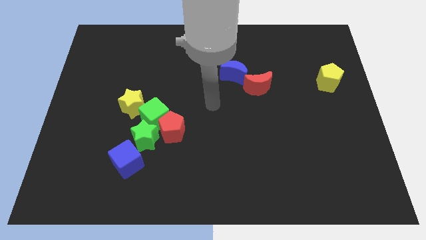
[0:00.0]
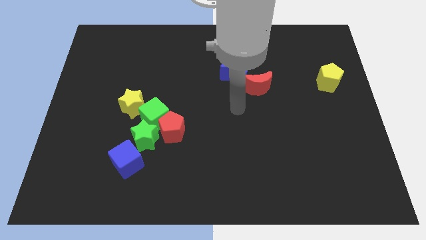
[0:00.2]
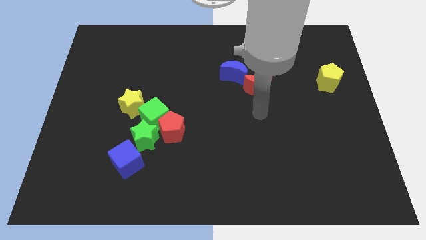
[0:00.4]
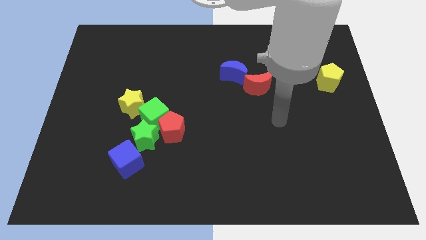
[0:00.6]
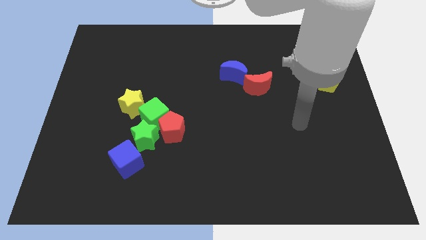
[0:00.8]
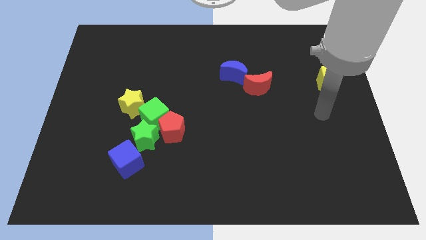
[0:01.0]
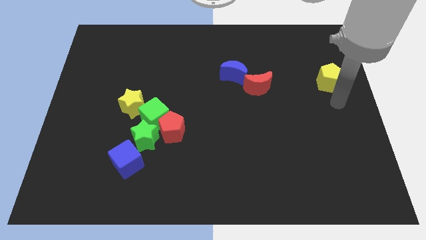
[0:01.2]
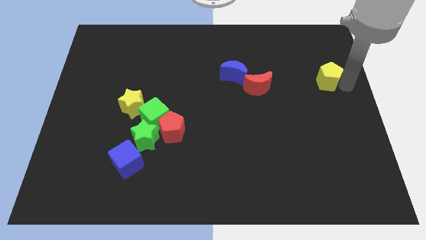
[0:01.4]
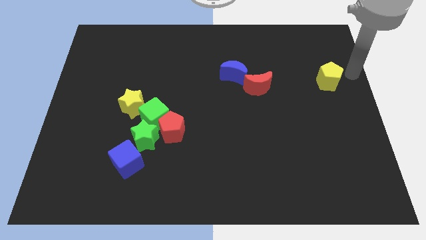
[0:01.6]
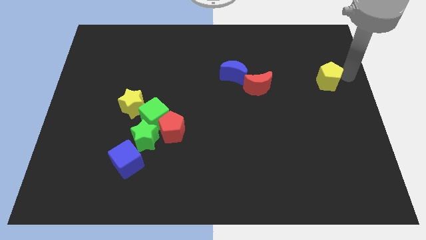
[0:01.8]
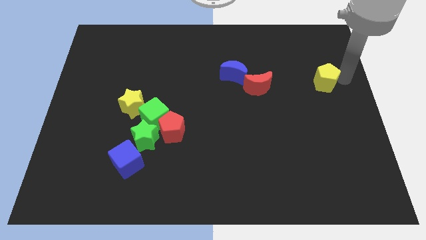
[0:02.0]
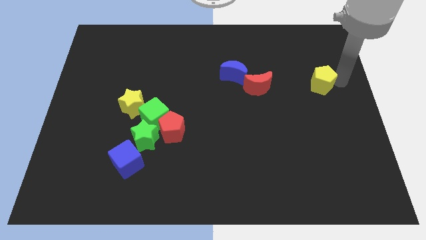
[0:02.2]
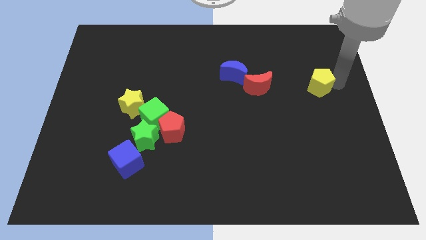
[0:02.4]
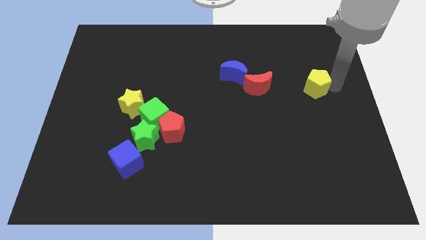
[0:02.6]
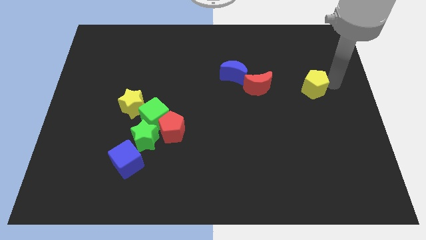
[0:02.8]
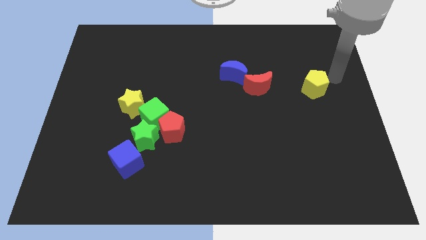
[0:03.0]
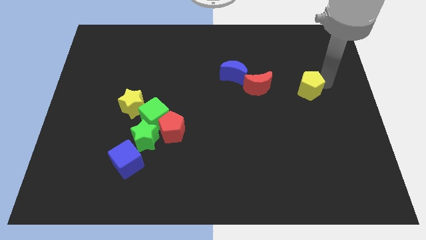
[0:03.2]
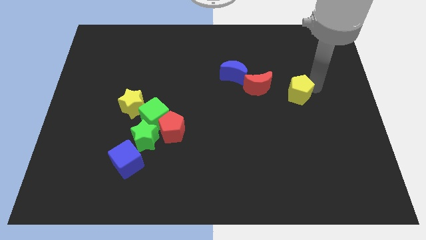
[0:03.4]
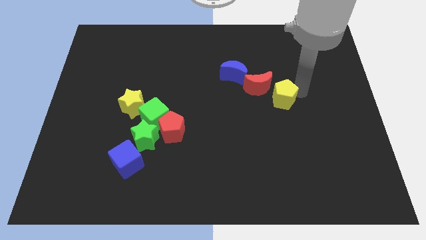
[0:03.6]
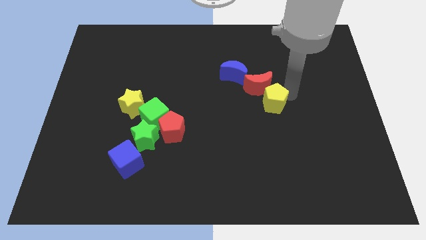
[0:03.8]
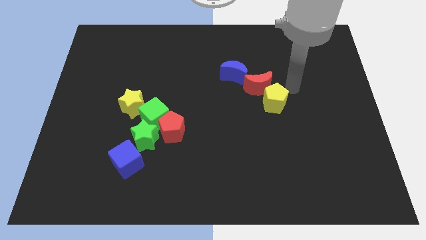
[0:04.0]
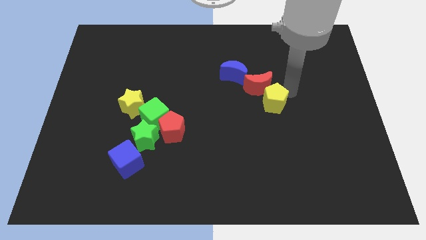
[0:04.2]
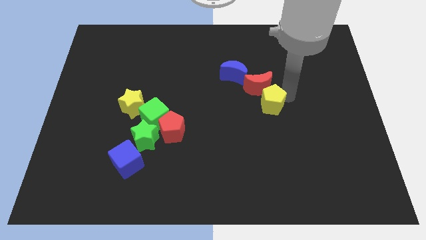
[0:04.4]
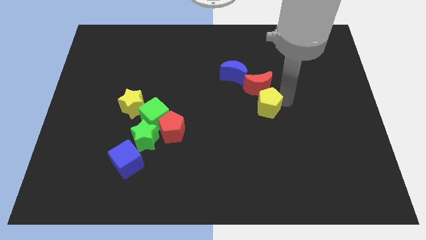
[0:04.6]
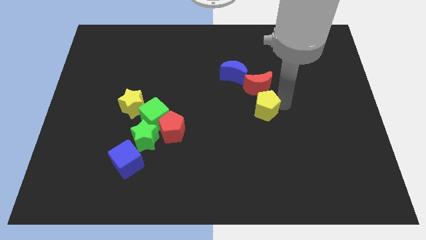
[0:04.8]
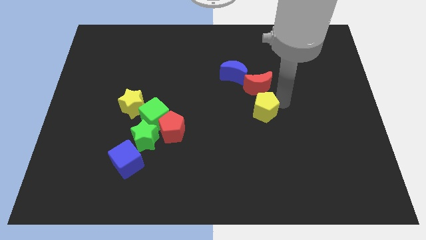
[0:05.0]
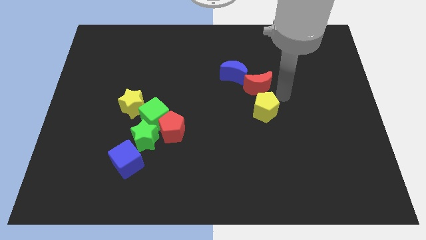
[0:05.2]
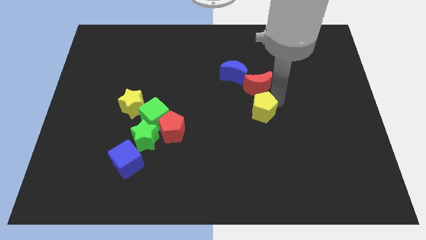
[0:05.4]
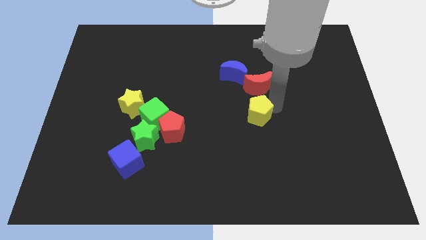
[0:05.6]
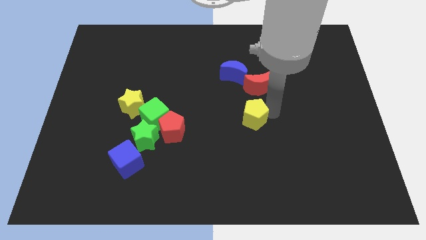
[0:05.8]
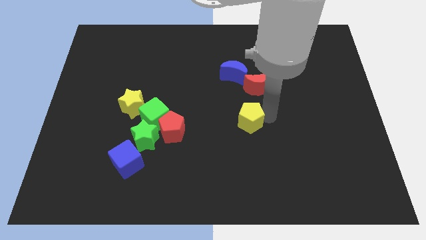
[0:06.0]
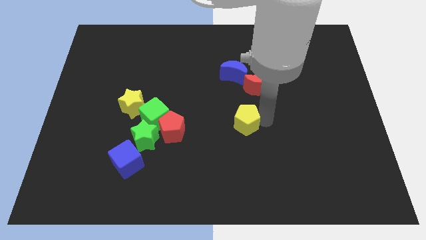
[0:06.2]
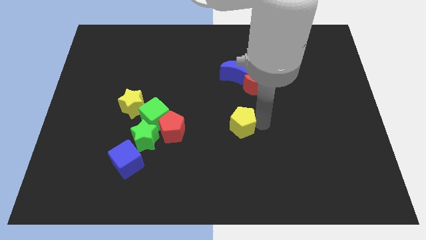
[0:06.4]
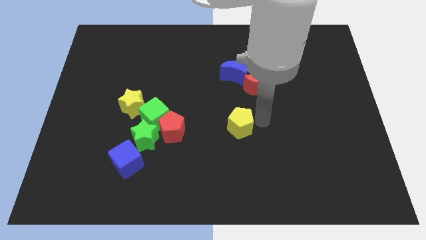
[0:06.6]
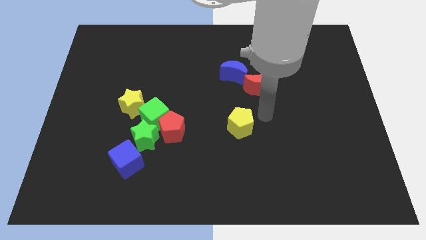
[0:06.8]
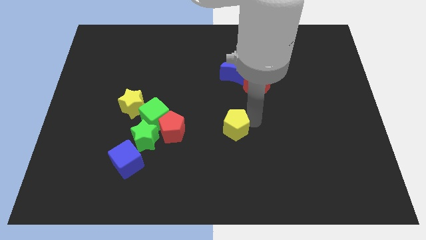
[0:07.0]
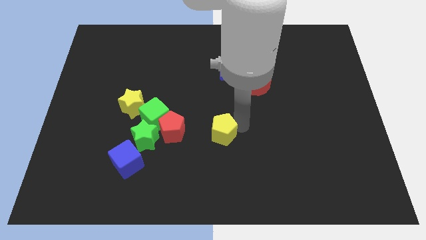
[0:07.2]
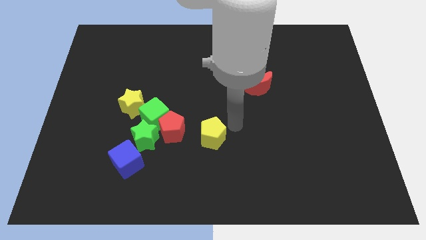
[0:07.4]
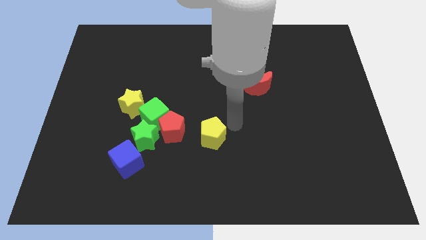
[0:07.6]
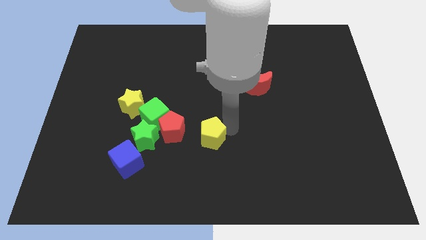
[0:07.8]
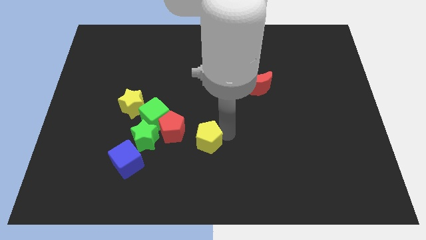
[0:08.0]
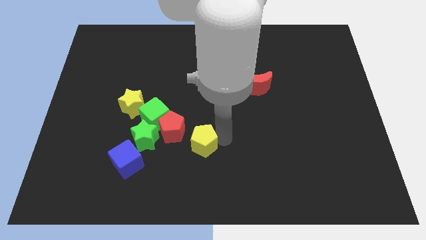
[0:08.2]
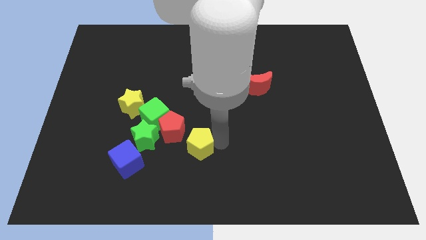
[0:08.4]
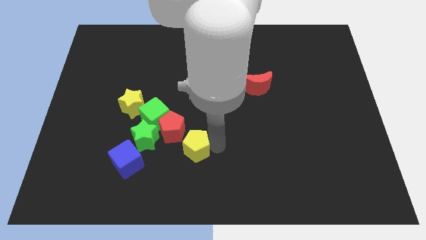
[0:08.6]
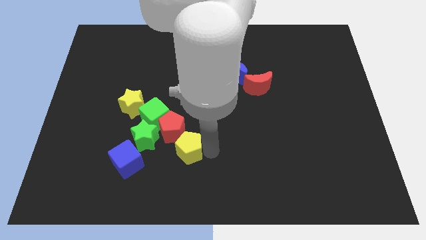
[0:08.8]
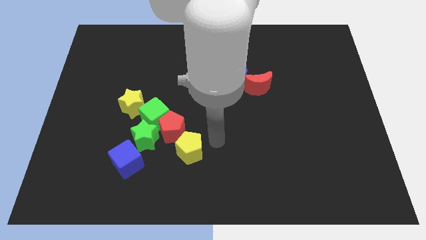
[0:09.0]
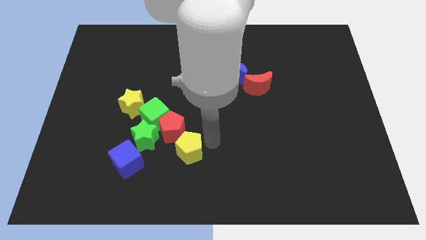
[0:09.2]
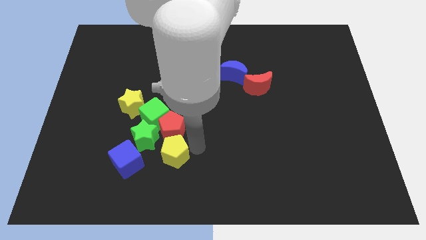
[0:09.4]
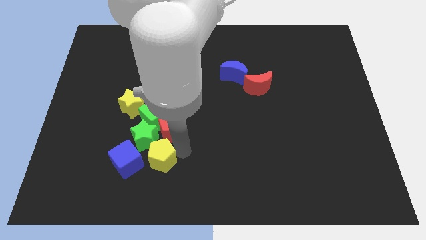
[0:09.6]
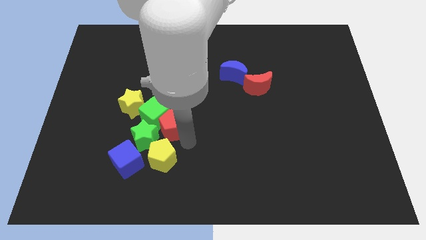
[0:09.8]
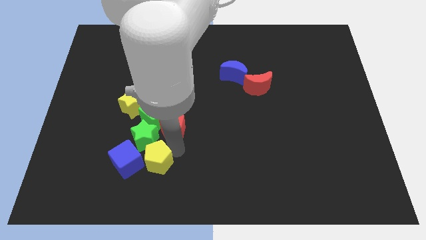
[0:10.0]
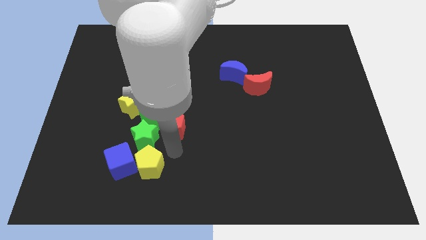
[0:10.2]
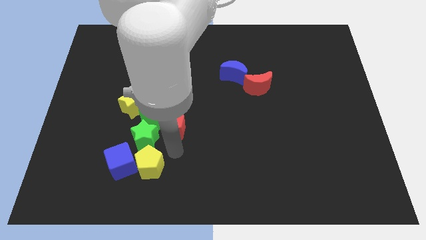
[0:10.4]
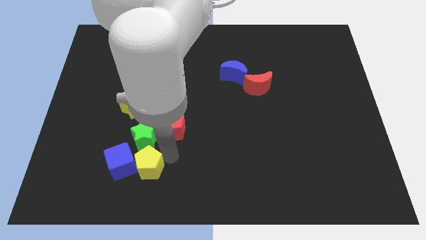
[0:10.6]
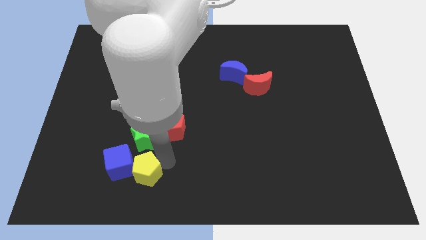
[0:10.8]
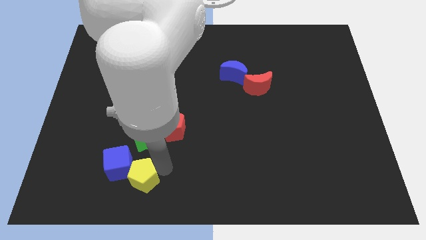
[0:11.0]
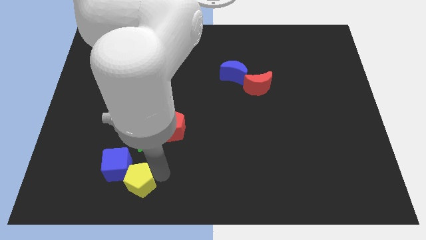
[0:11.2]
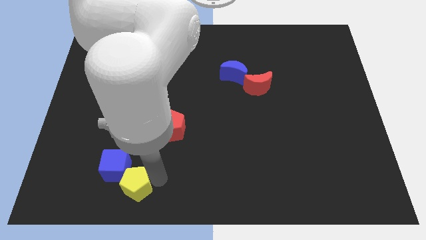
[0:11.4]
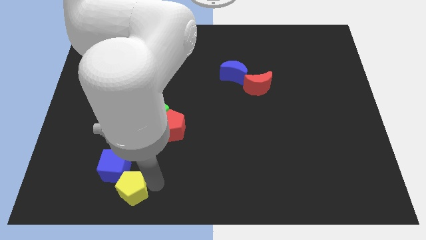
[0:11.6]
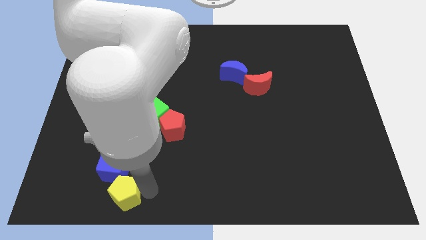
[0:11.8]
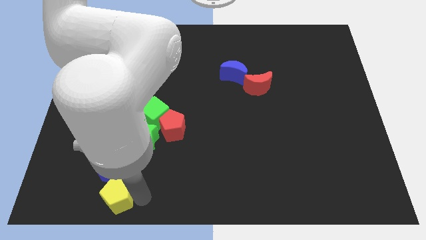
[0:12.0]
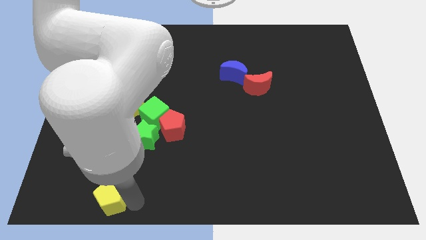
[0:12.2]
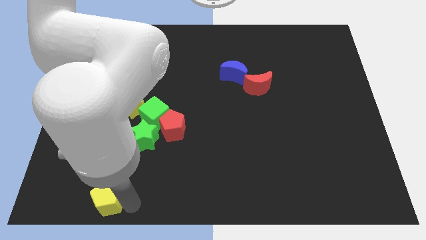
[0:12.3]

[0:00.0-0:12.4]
move the yellow pentagon to the bottom left of the blue cube

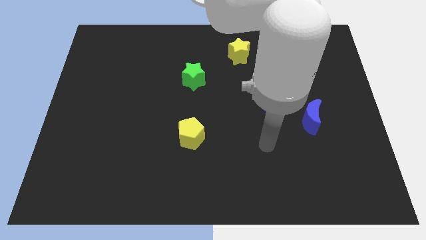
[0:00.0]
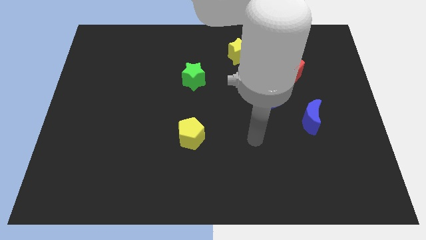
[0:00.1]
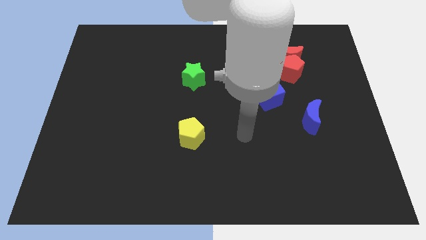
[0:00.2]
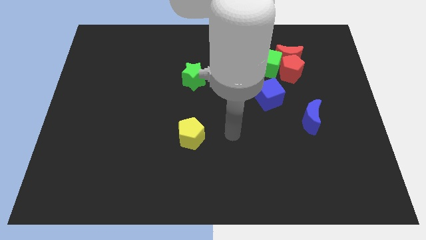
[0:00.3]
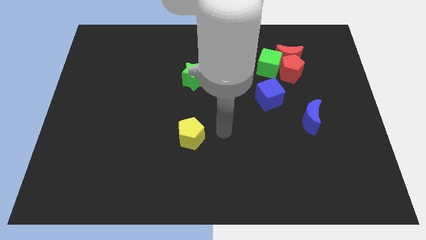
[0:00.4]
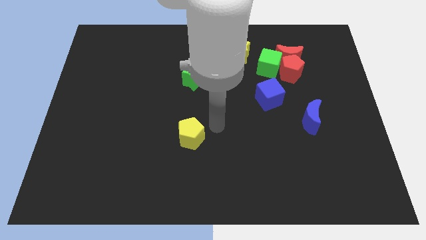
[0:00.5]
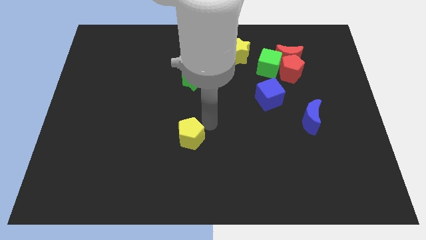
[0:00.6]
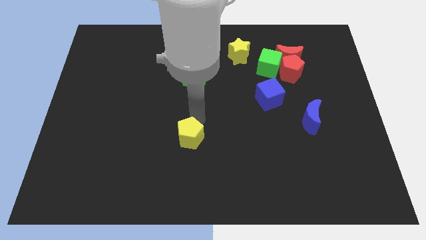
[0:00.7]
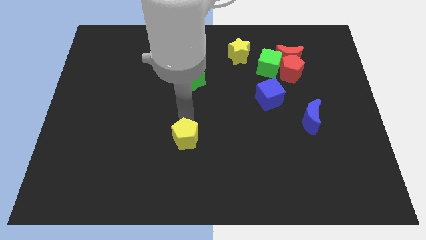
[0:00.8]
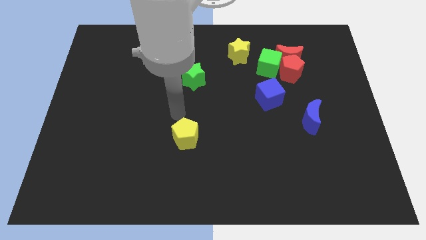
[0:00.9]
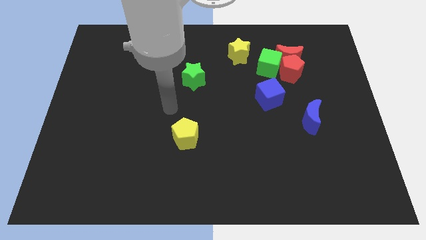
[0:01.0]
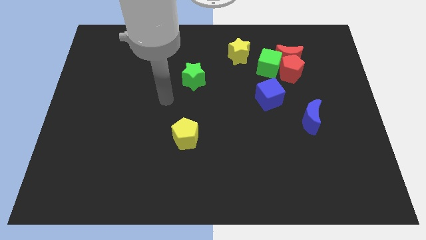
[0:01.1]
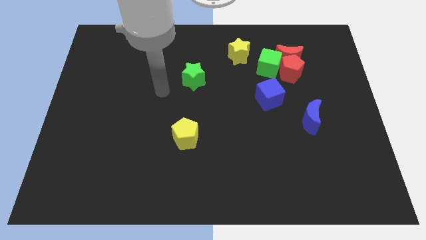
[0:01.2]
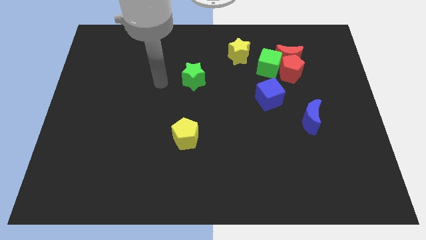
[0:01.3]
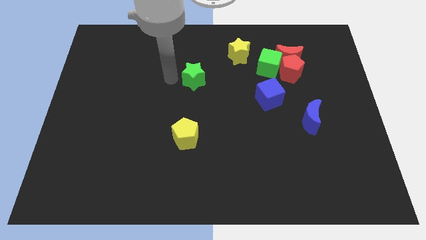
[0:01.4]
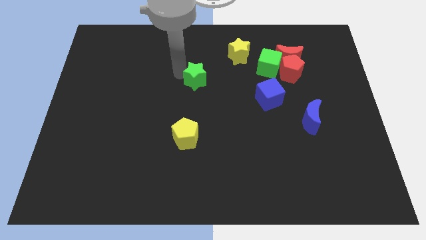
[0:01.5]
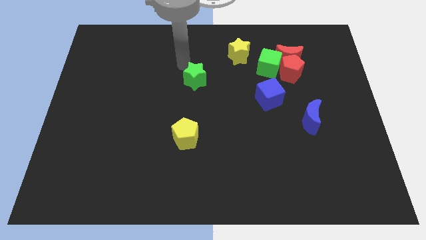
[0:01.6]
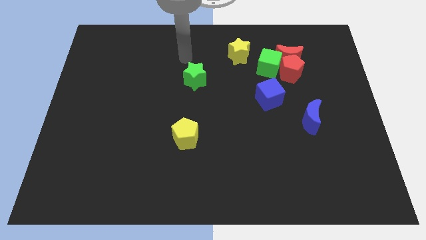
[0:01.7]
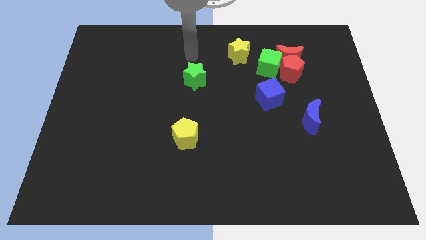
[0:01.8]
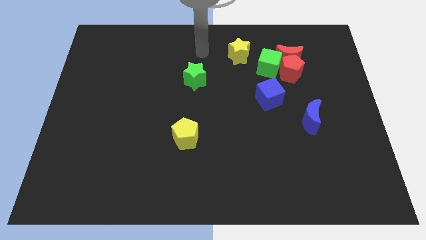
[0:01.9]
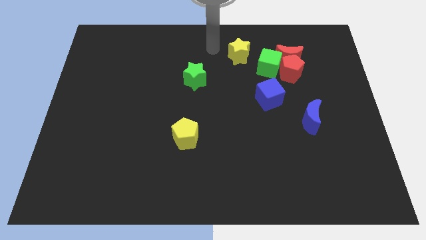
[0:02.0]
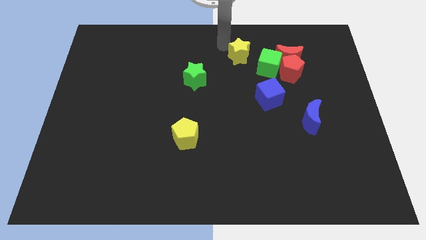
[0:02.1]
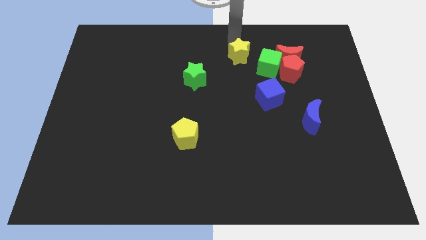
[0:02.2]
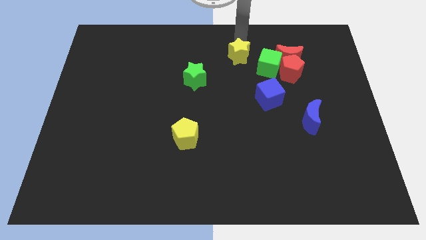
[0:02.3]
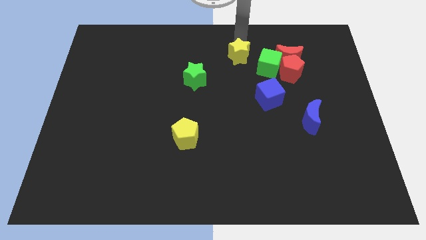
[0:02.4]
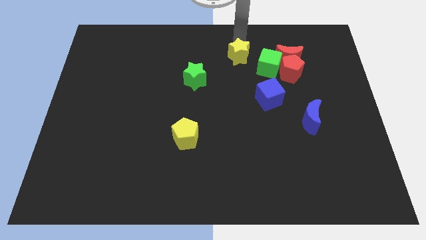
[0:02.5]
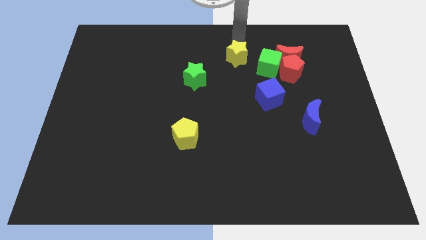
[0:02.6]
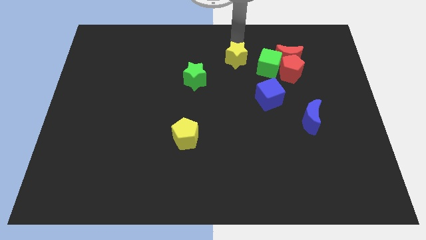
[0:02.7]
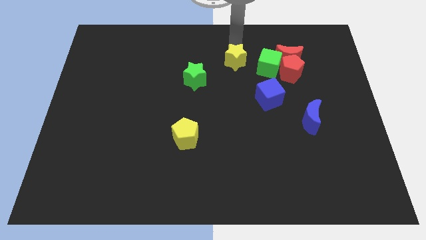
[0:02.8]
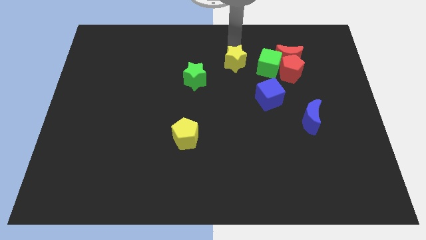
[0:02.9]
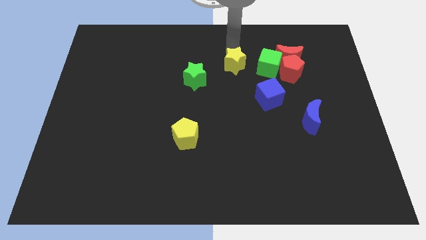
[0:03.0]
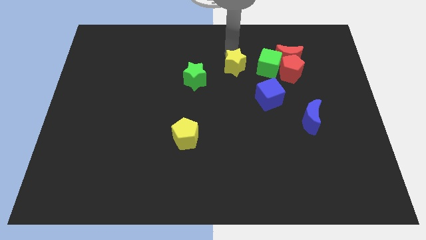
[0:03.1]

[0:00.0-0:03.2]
move the yellow star right of the green star
